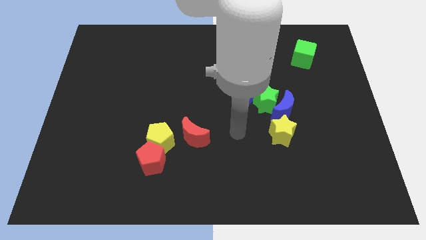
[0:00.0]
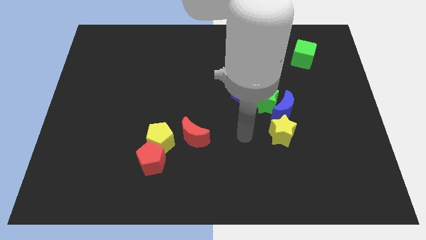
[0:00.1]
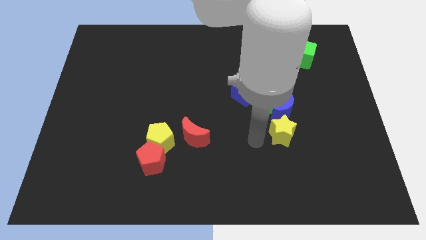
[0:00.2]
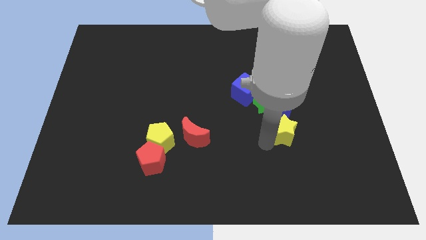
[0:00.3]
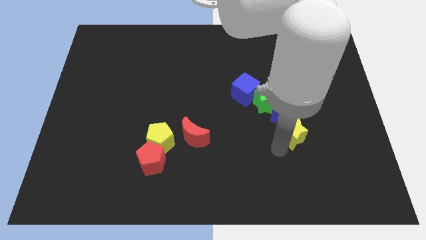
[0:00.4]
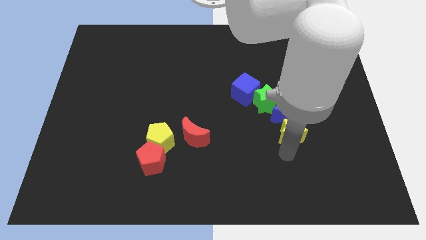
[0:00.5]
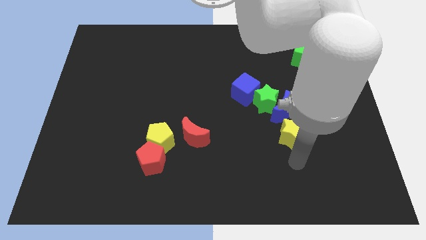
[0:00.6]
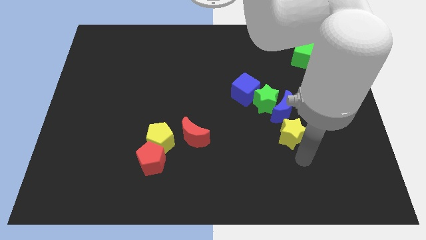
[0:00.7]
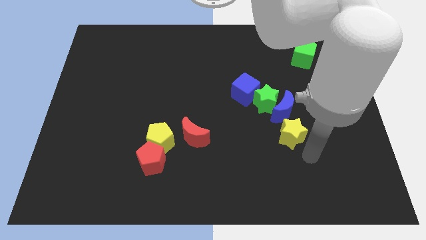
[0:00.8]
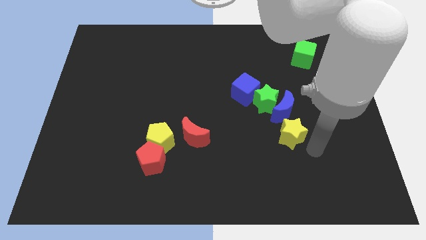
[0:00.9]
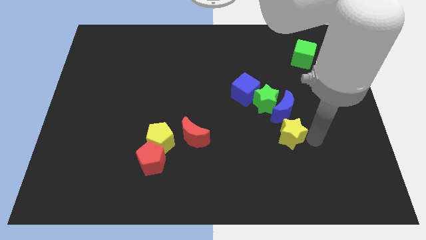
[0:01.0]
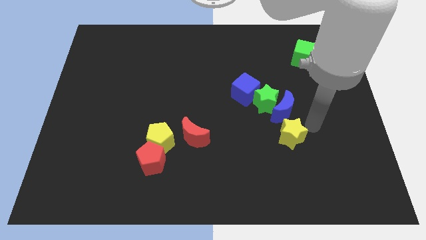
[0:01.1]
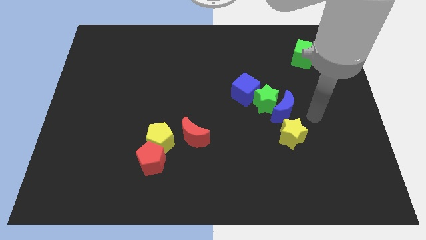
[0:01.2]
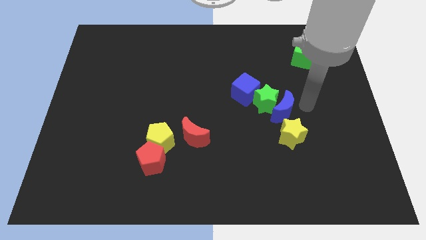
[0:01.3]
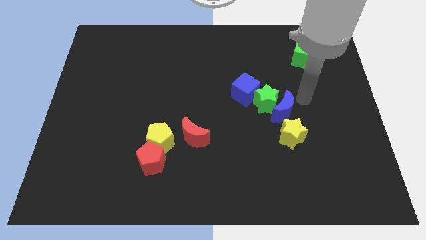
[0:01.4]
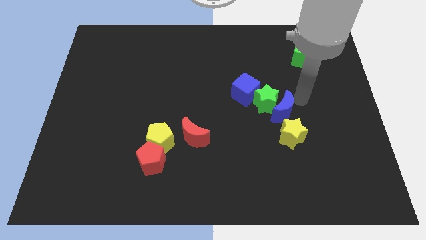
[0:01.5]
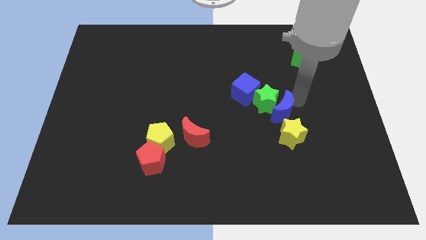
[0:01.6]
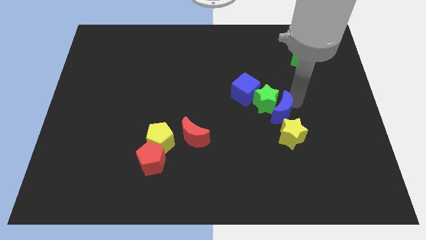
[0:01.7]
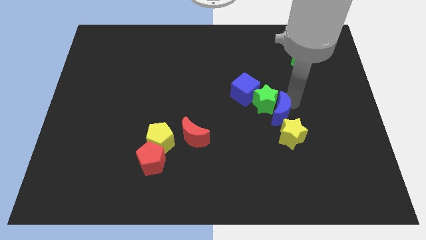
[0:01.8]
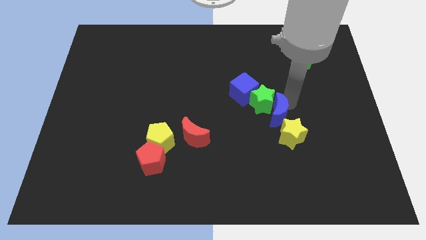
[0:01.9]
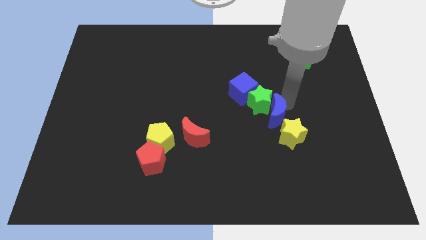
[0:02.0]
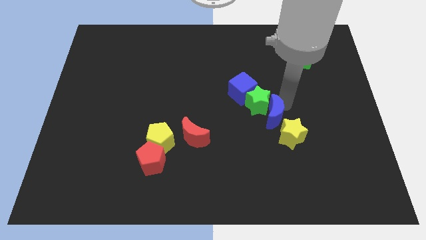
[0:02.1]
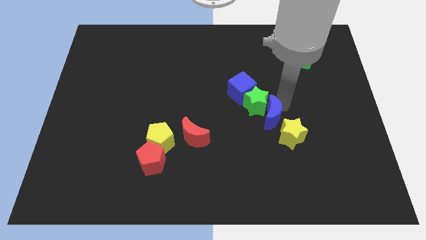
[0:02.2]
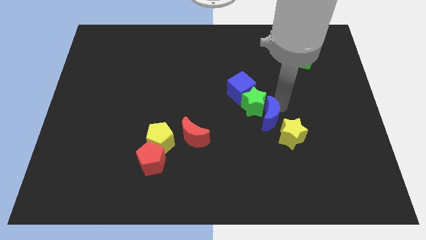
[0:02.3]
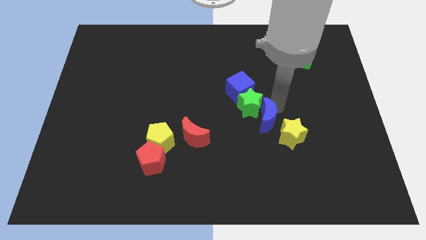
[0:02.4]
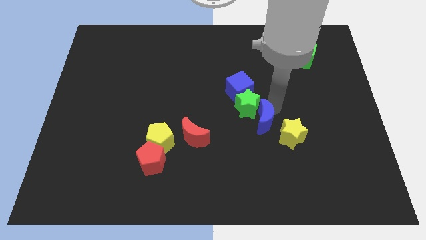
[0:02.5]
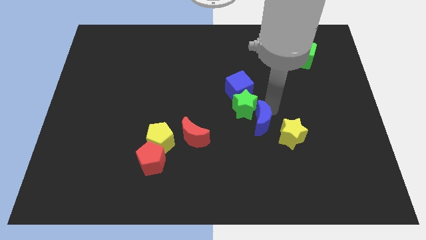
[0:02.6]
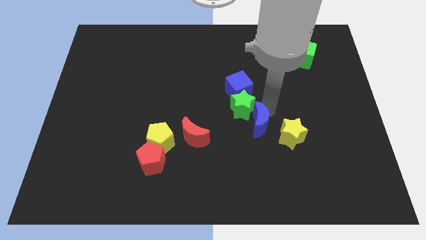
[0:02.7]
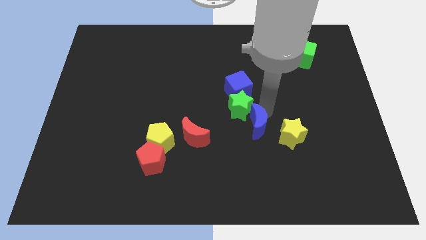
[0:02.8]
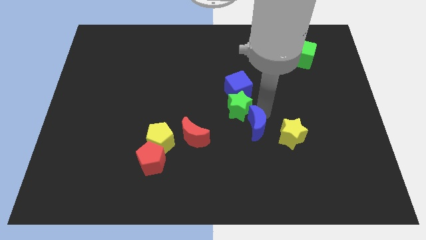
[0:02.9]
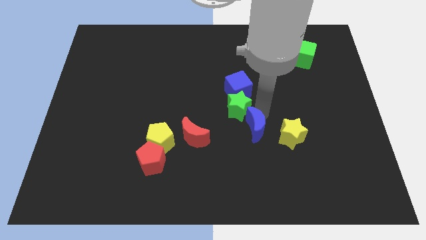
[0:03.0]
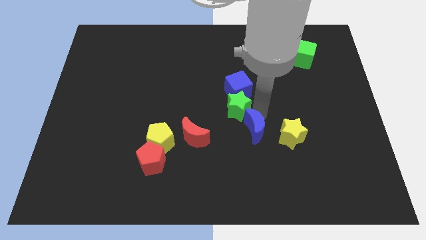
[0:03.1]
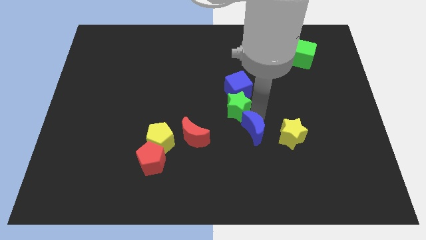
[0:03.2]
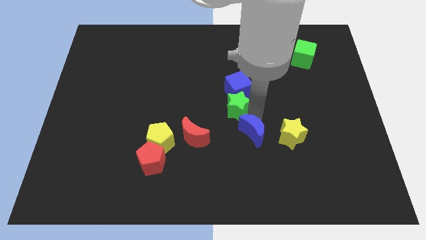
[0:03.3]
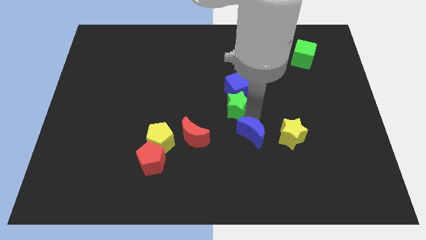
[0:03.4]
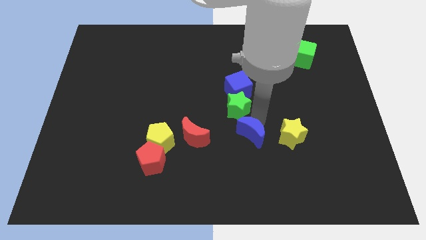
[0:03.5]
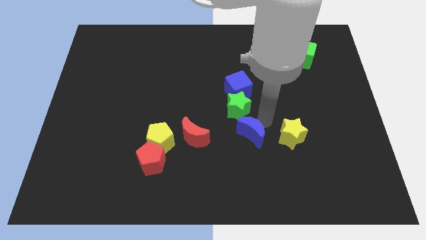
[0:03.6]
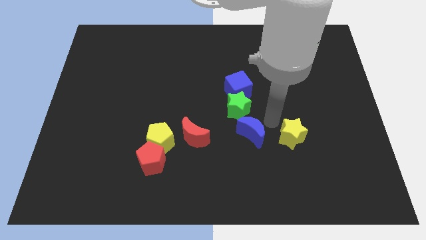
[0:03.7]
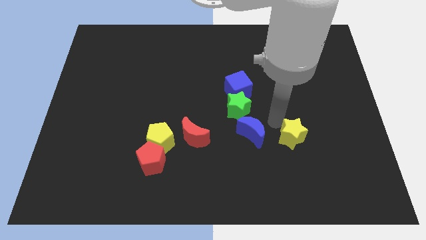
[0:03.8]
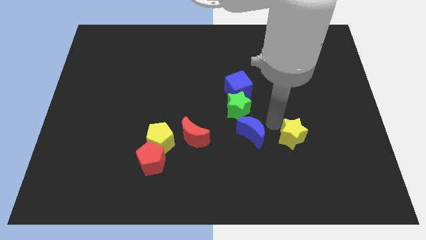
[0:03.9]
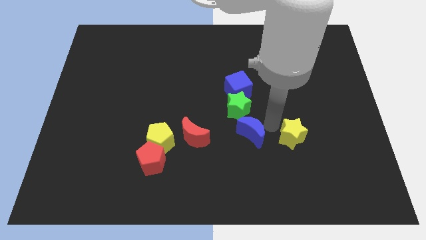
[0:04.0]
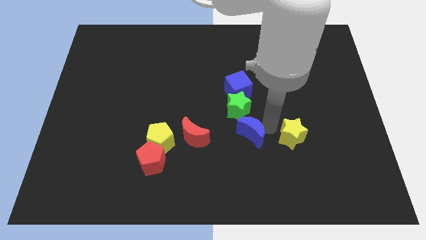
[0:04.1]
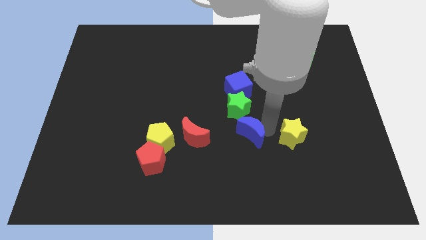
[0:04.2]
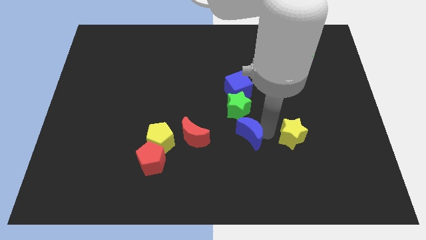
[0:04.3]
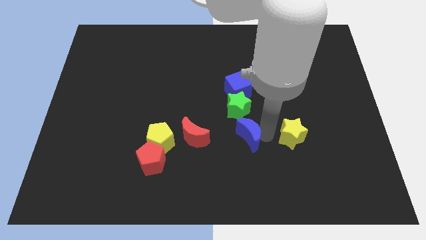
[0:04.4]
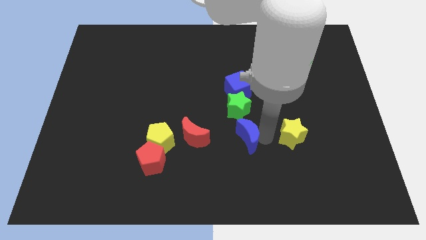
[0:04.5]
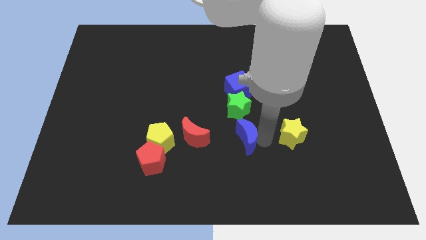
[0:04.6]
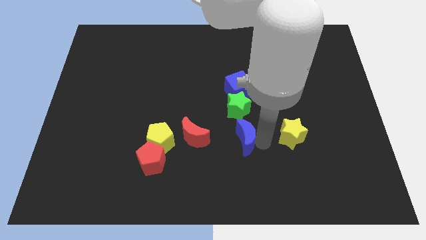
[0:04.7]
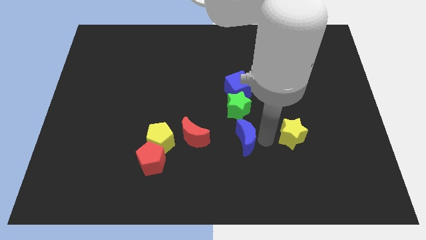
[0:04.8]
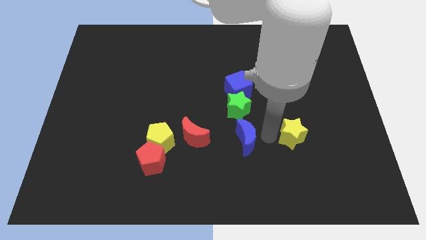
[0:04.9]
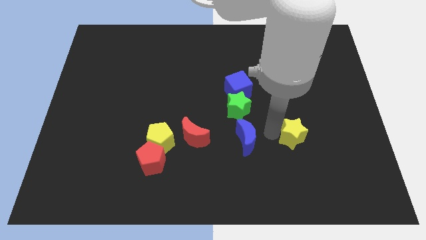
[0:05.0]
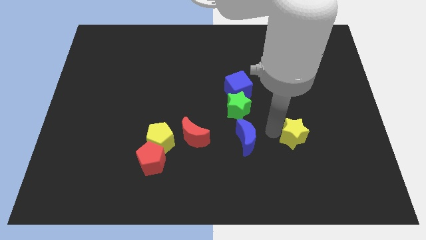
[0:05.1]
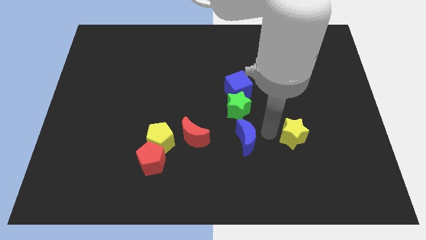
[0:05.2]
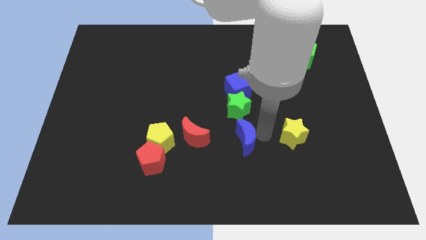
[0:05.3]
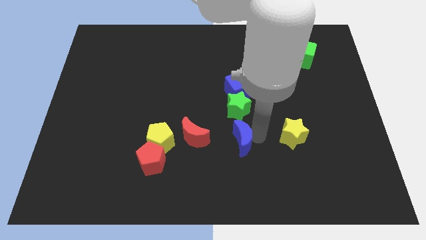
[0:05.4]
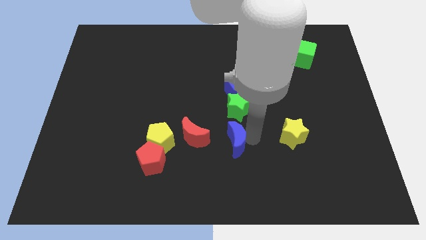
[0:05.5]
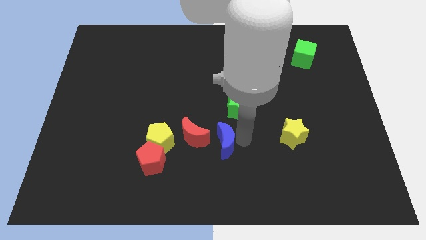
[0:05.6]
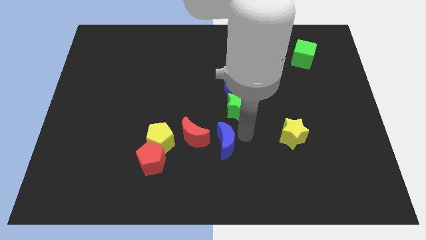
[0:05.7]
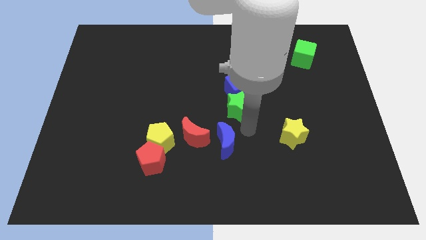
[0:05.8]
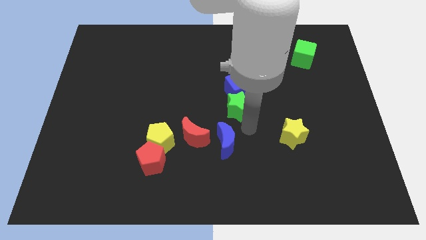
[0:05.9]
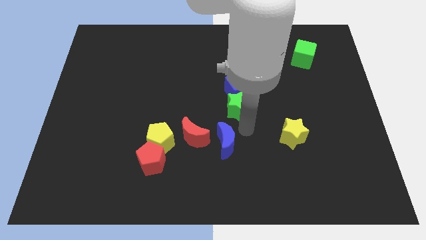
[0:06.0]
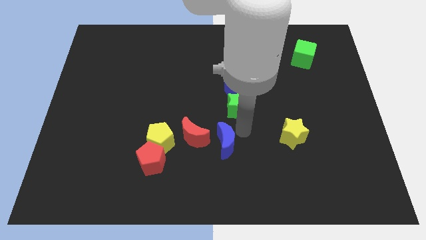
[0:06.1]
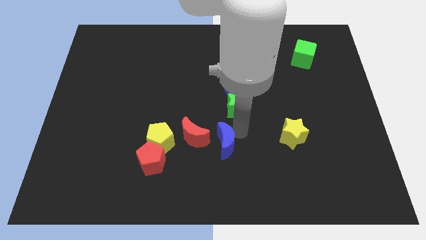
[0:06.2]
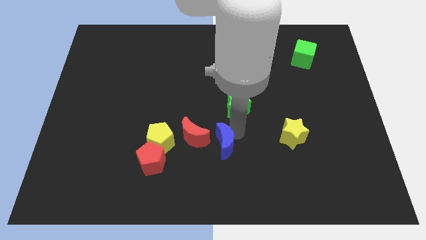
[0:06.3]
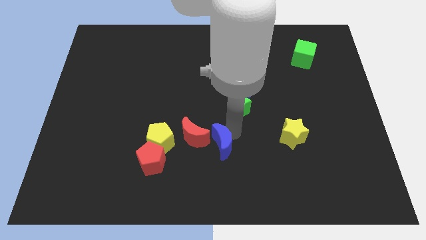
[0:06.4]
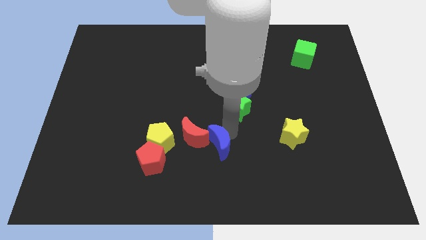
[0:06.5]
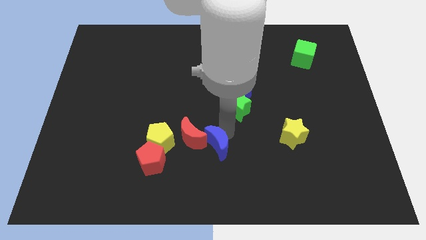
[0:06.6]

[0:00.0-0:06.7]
put the blue moon to the right of the red pentagon
